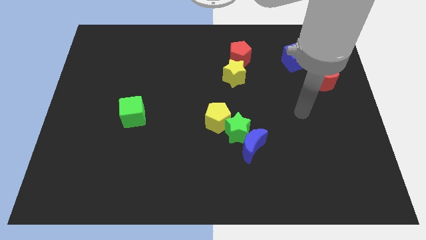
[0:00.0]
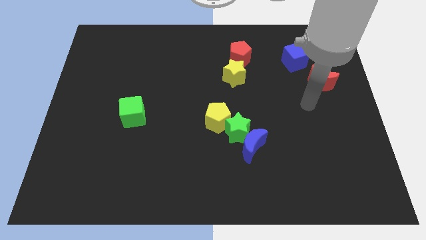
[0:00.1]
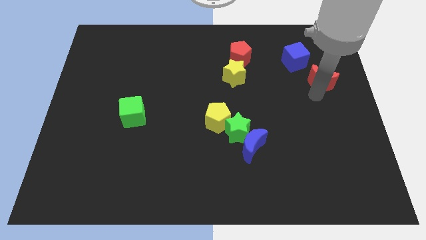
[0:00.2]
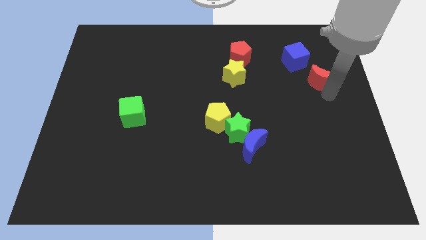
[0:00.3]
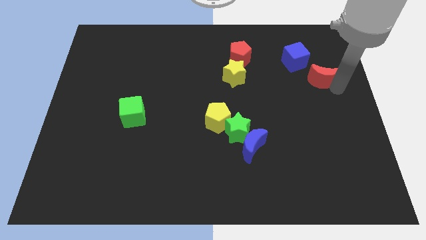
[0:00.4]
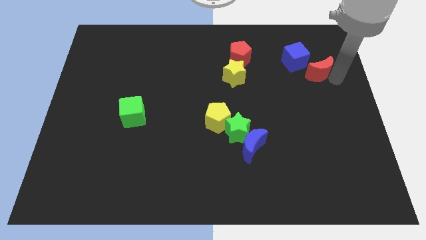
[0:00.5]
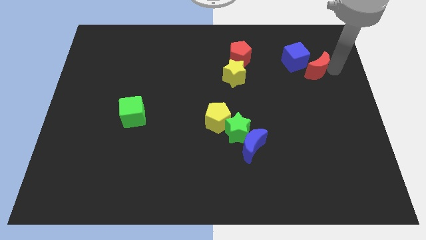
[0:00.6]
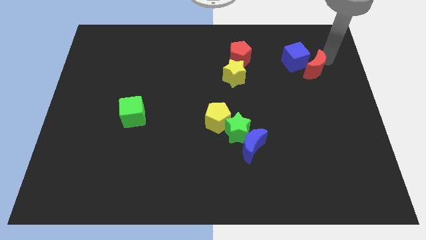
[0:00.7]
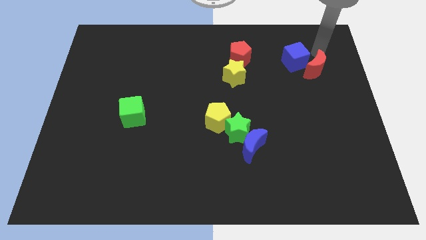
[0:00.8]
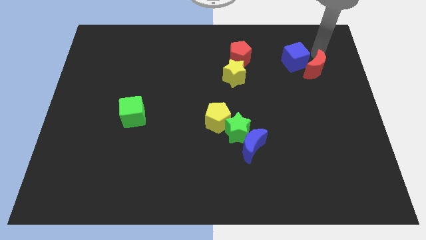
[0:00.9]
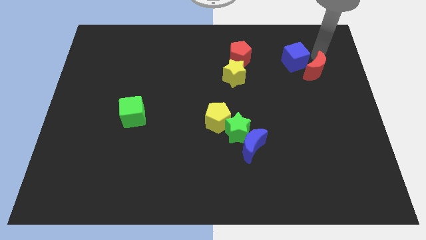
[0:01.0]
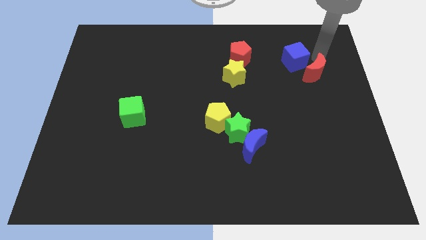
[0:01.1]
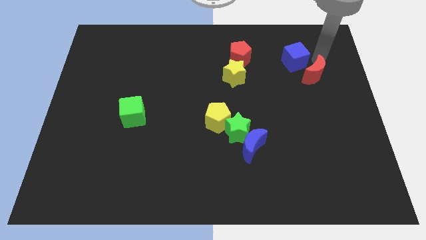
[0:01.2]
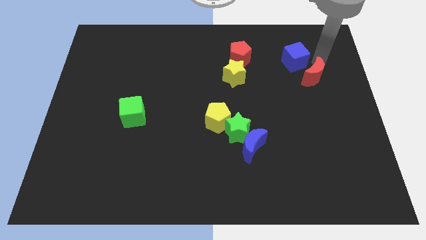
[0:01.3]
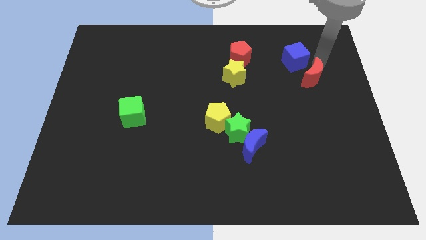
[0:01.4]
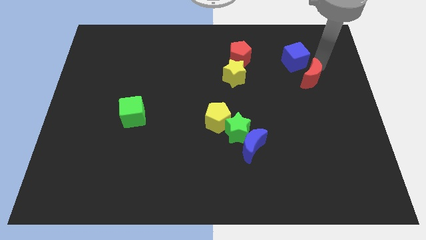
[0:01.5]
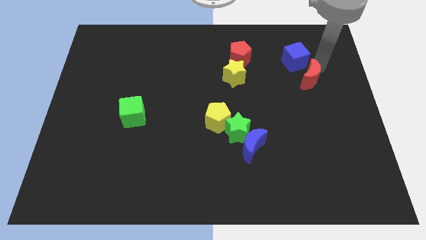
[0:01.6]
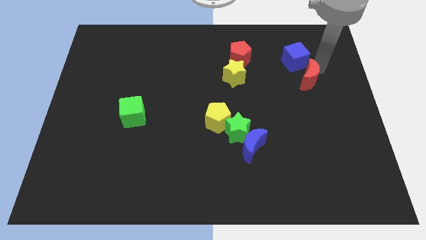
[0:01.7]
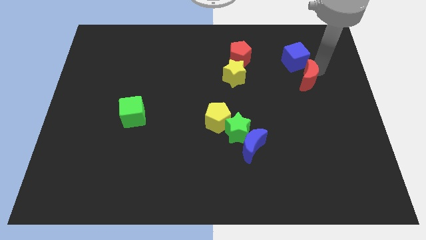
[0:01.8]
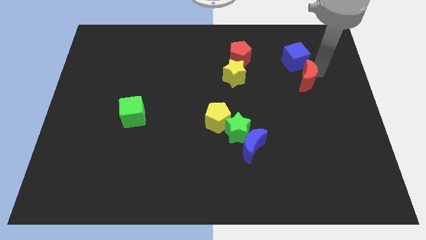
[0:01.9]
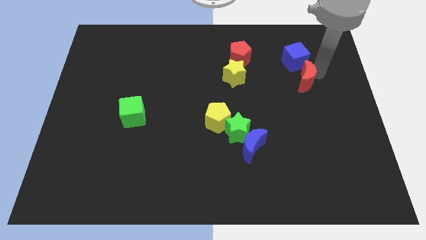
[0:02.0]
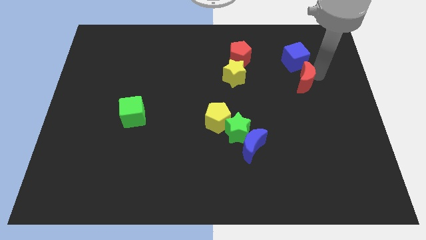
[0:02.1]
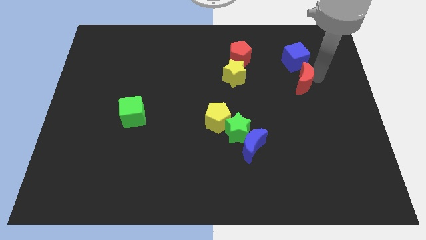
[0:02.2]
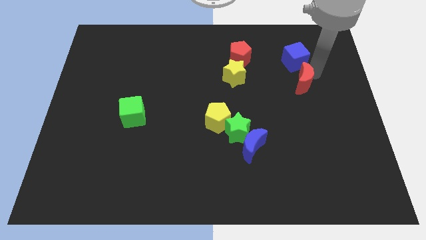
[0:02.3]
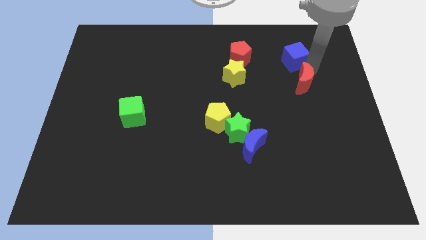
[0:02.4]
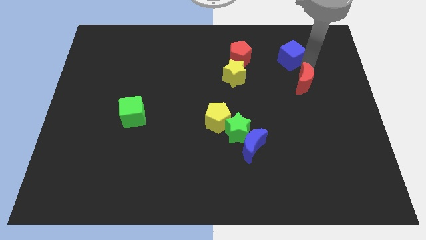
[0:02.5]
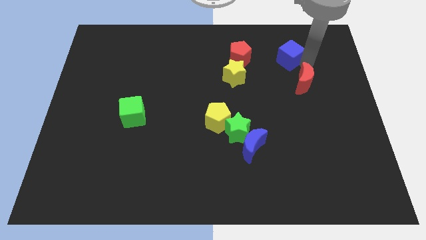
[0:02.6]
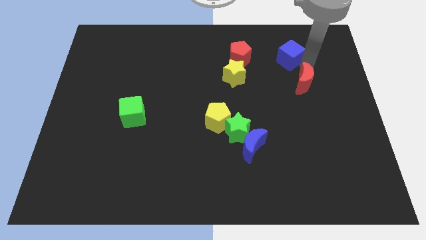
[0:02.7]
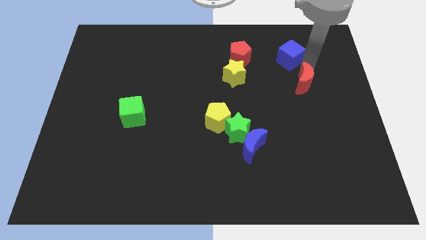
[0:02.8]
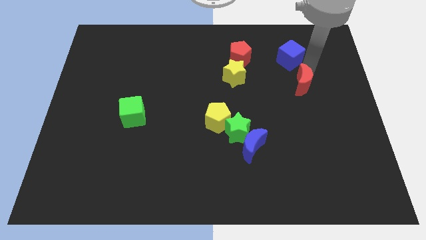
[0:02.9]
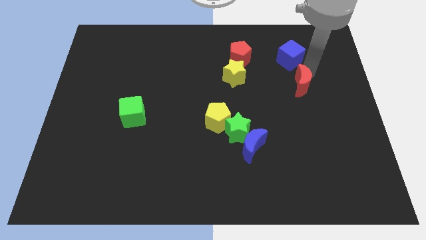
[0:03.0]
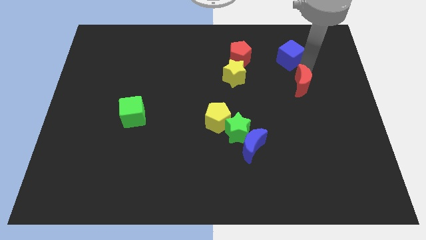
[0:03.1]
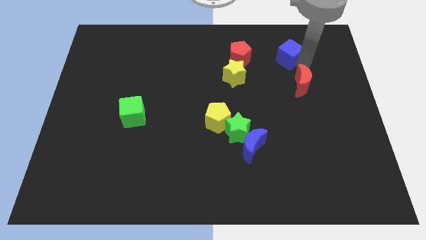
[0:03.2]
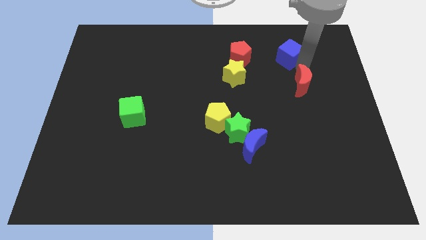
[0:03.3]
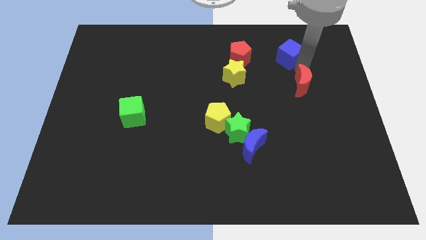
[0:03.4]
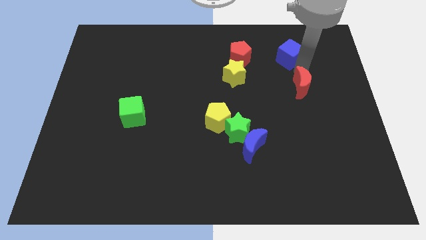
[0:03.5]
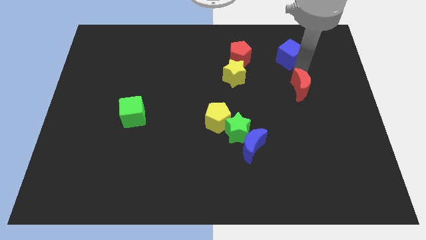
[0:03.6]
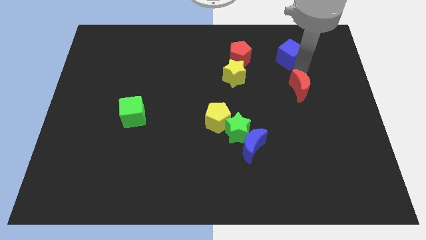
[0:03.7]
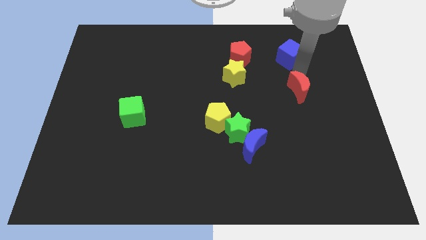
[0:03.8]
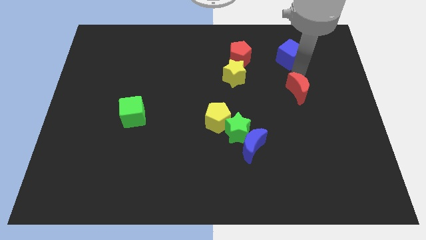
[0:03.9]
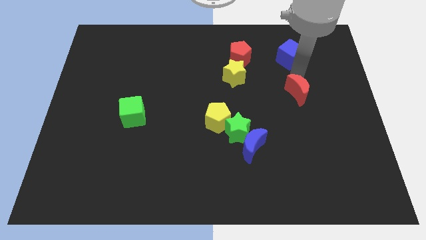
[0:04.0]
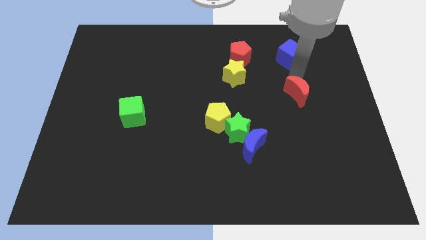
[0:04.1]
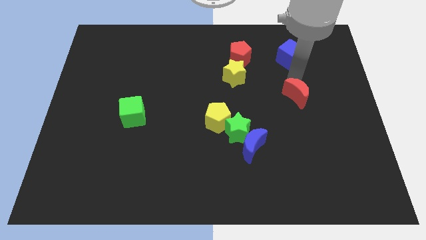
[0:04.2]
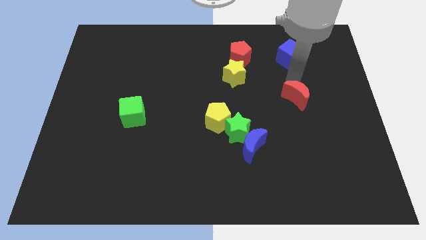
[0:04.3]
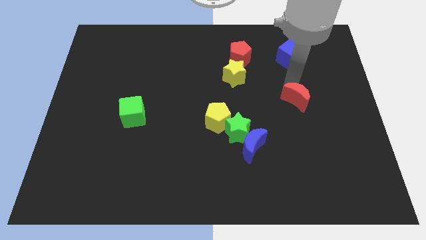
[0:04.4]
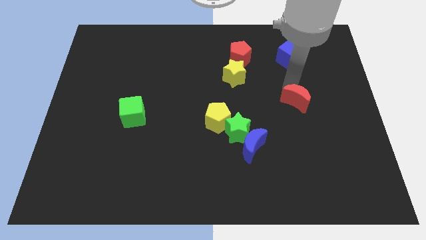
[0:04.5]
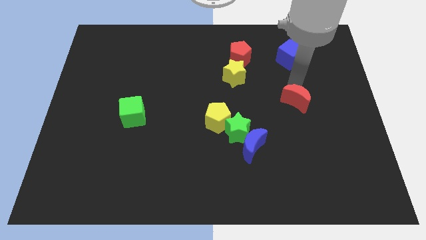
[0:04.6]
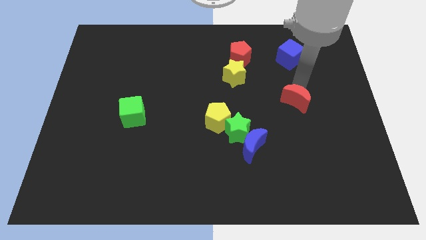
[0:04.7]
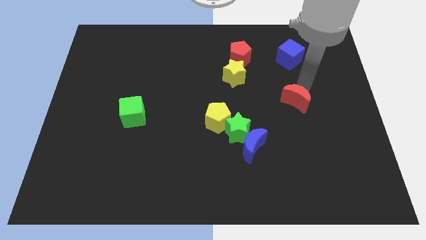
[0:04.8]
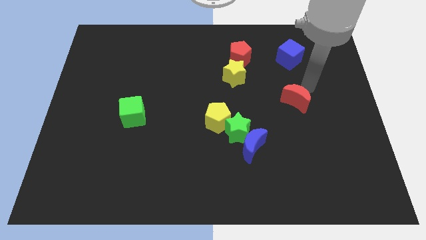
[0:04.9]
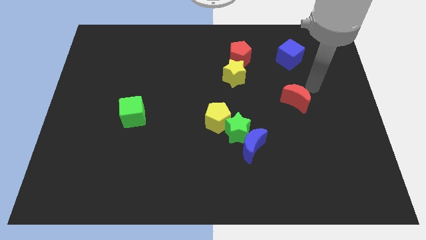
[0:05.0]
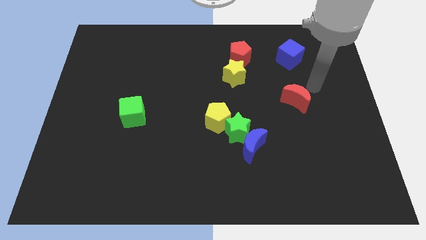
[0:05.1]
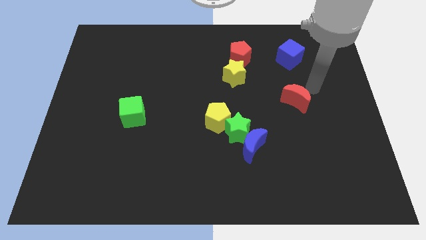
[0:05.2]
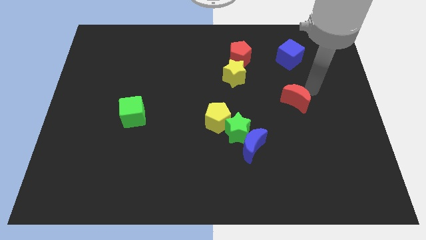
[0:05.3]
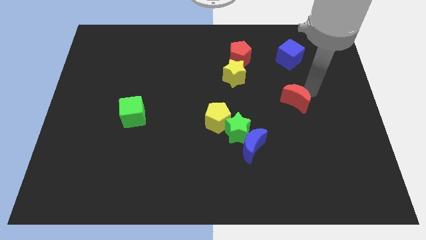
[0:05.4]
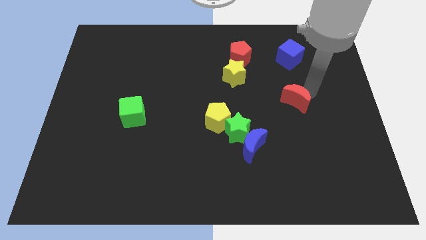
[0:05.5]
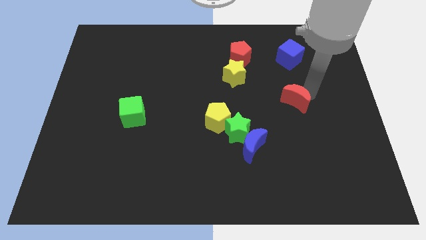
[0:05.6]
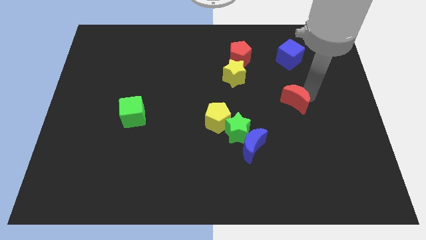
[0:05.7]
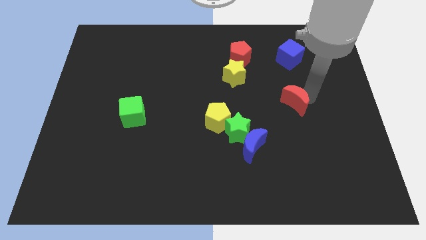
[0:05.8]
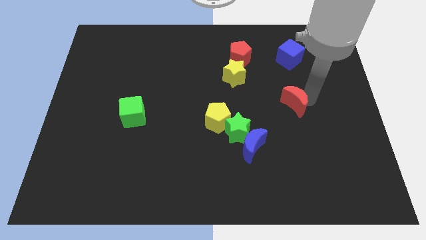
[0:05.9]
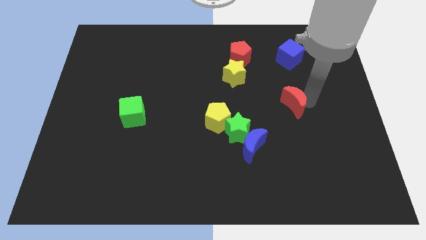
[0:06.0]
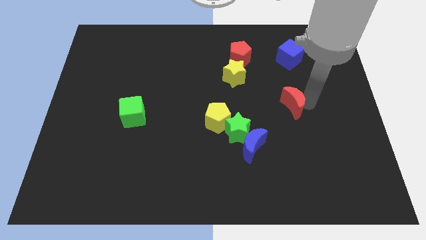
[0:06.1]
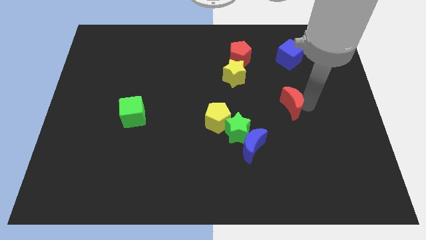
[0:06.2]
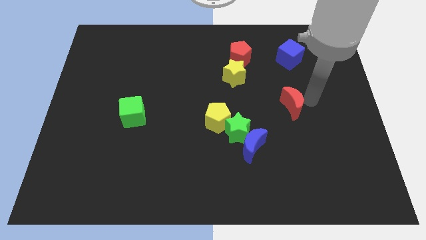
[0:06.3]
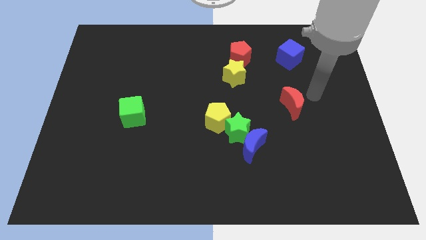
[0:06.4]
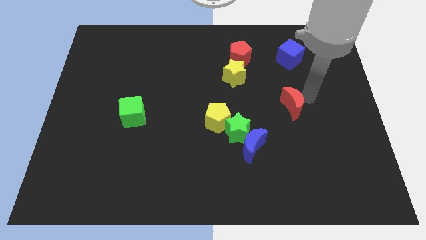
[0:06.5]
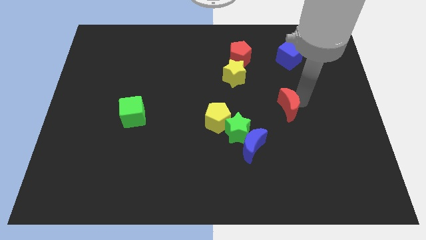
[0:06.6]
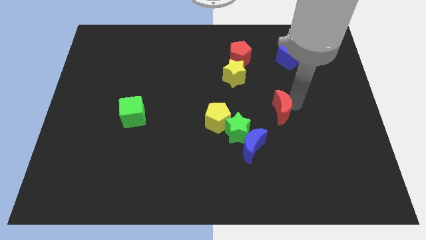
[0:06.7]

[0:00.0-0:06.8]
push the red moon to the right side of the yellow pentagon

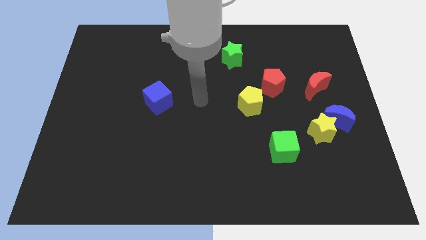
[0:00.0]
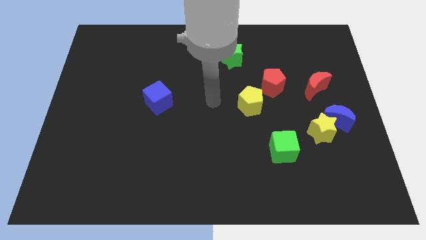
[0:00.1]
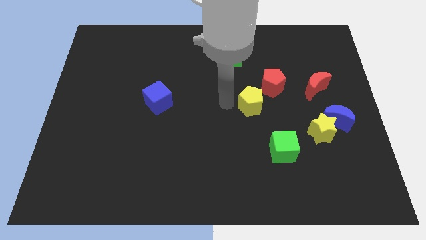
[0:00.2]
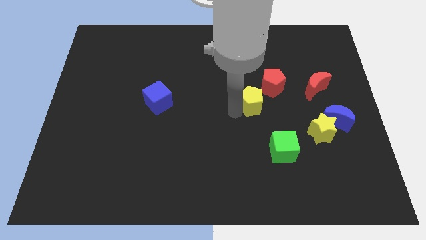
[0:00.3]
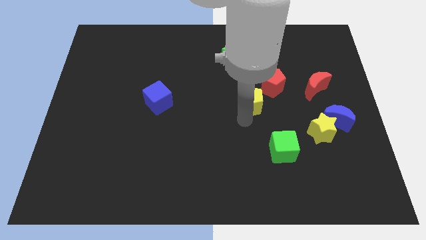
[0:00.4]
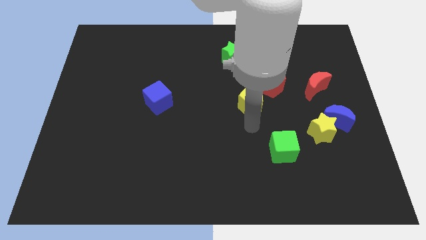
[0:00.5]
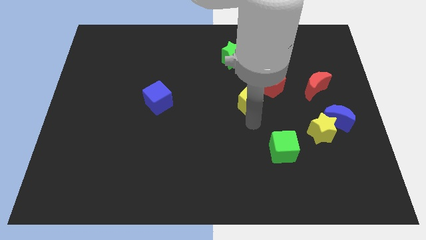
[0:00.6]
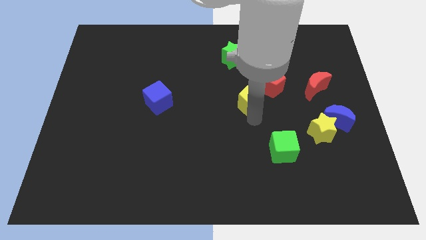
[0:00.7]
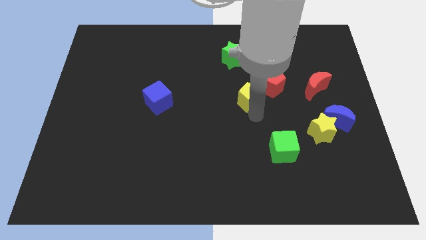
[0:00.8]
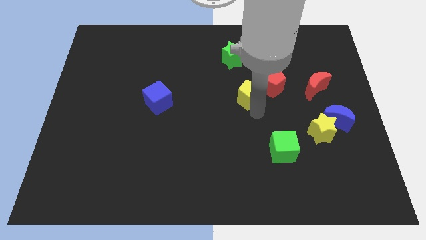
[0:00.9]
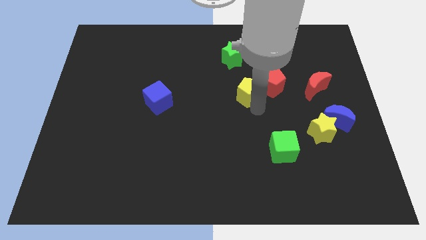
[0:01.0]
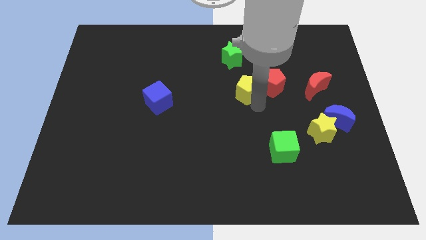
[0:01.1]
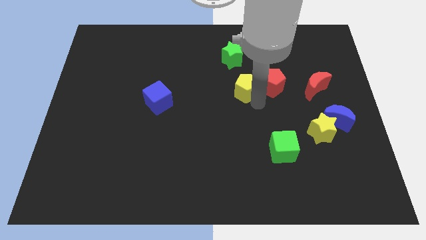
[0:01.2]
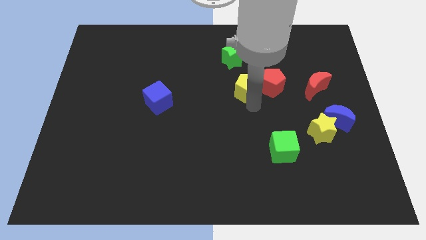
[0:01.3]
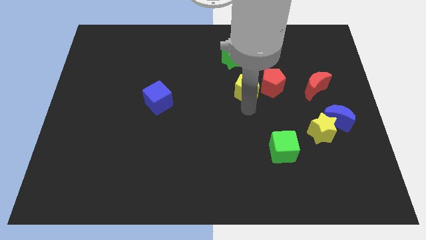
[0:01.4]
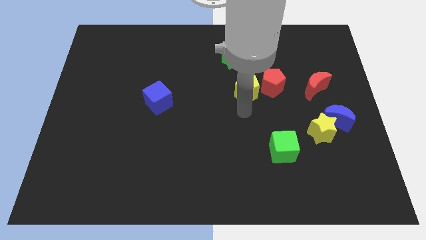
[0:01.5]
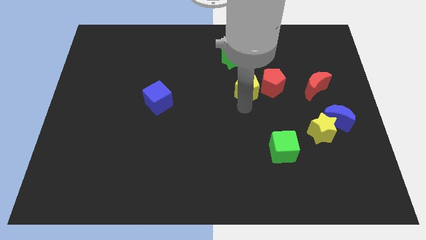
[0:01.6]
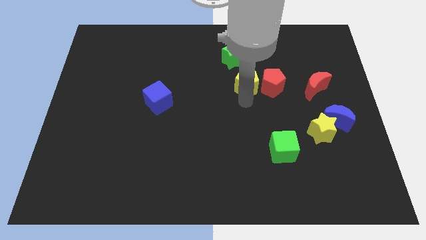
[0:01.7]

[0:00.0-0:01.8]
slide the yellow pentagon to the top left side of the red pentagon
